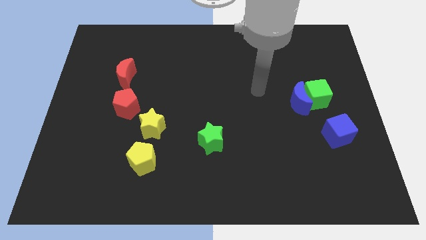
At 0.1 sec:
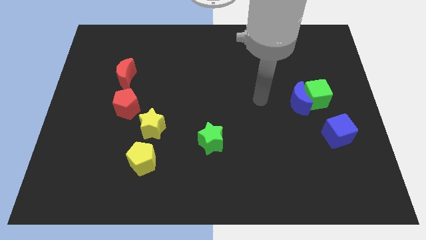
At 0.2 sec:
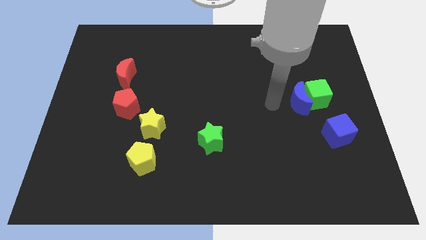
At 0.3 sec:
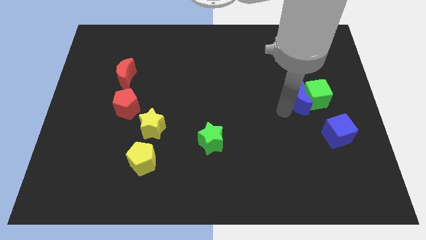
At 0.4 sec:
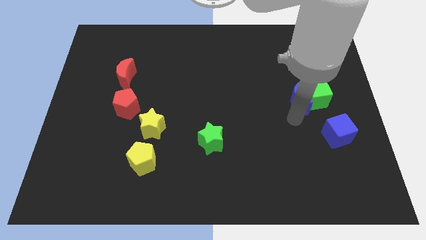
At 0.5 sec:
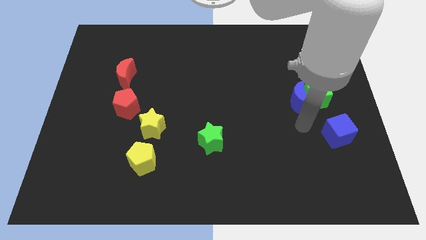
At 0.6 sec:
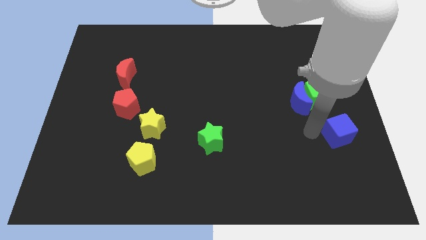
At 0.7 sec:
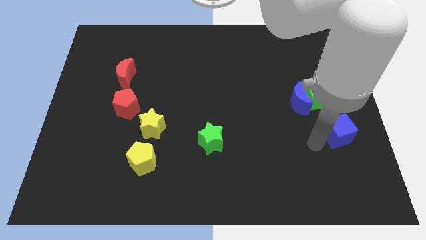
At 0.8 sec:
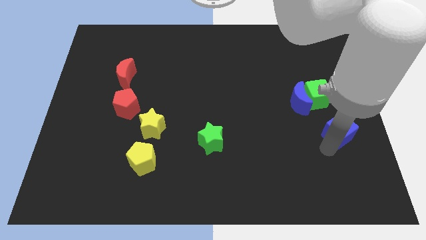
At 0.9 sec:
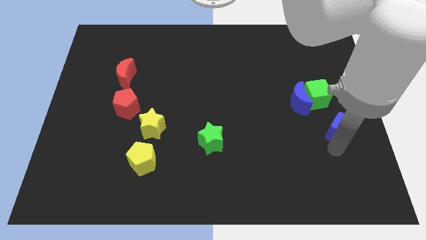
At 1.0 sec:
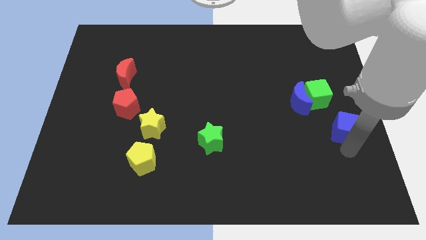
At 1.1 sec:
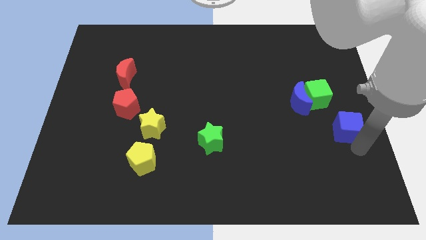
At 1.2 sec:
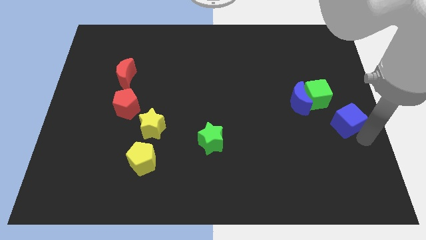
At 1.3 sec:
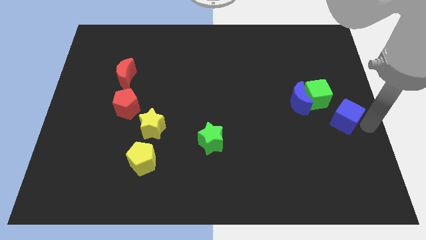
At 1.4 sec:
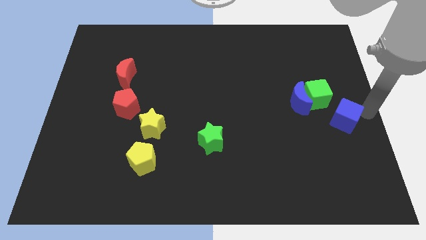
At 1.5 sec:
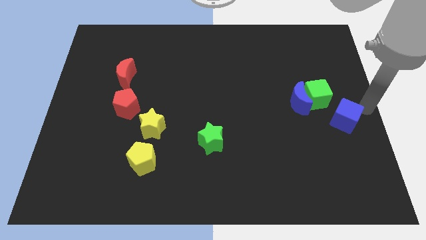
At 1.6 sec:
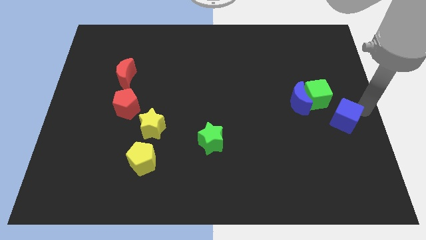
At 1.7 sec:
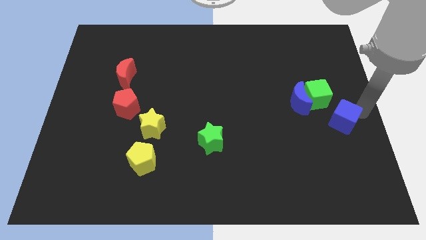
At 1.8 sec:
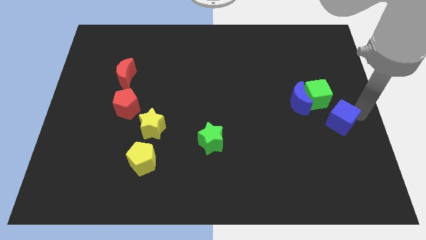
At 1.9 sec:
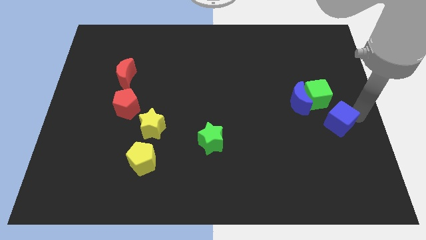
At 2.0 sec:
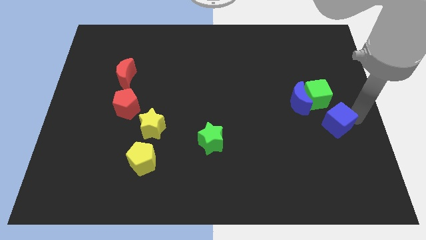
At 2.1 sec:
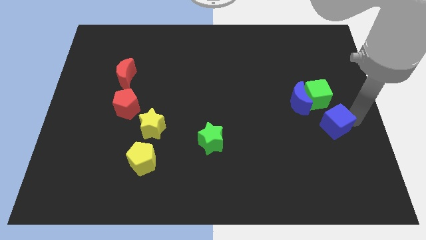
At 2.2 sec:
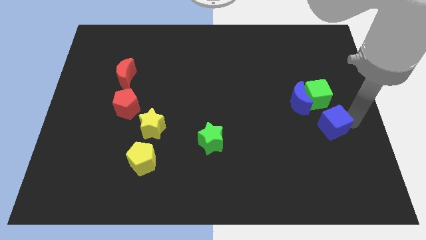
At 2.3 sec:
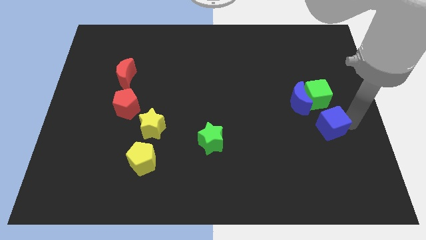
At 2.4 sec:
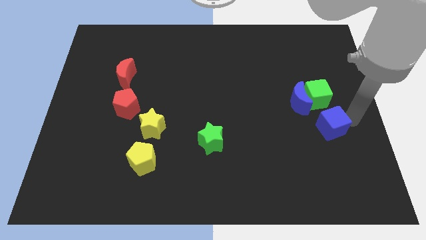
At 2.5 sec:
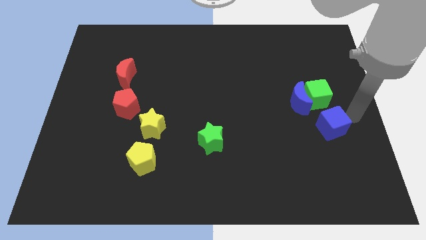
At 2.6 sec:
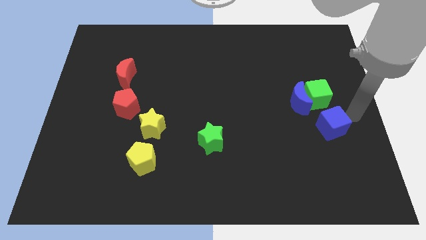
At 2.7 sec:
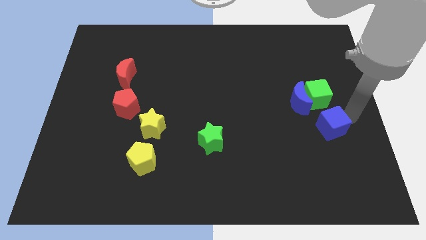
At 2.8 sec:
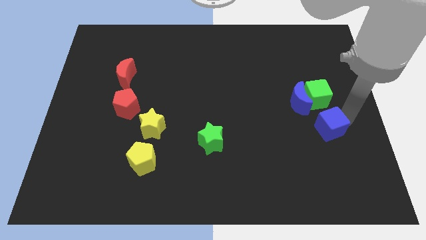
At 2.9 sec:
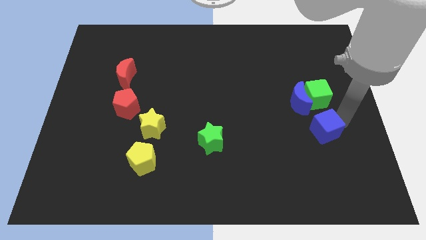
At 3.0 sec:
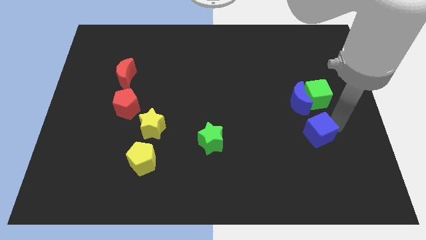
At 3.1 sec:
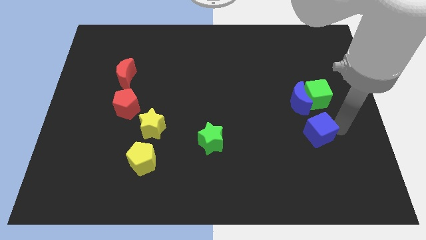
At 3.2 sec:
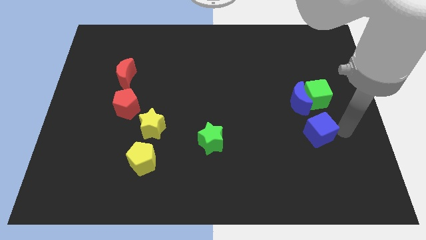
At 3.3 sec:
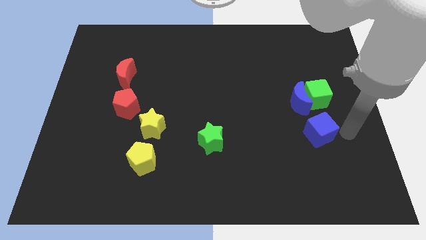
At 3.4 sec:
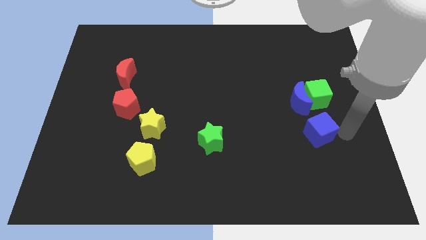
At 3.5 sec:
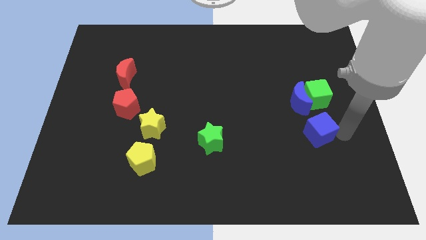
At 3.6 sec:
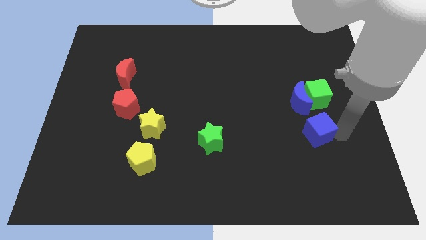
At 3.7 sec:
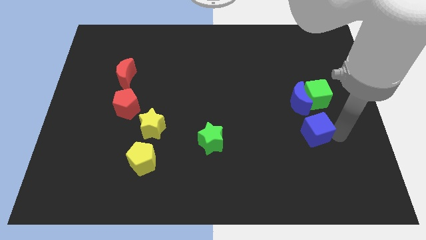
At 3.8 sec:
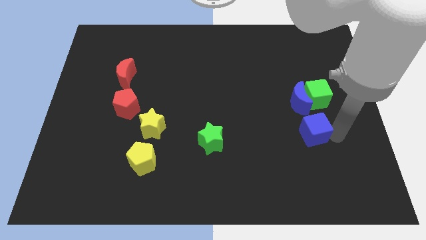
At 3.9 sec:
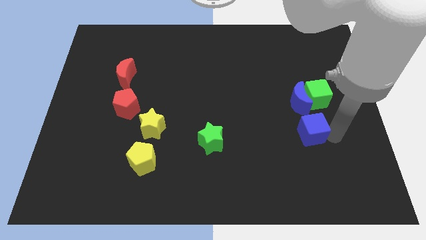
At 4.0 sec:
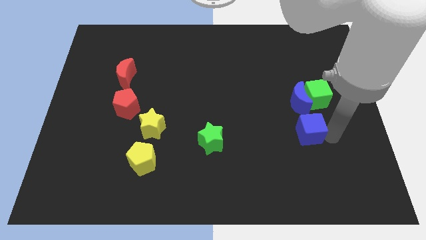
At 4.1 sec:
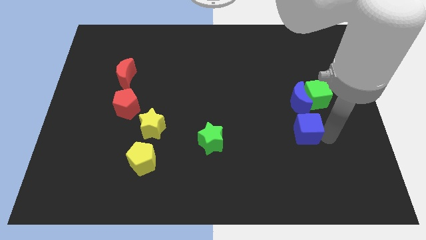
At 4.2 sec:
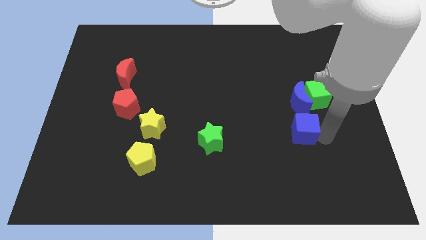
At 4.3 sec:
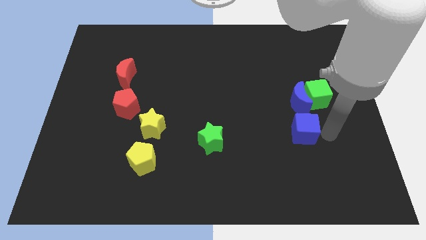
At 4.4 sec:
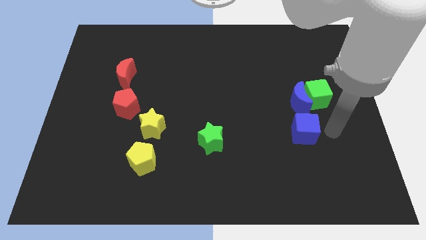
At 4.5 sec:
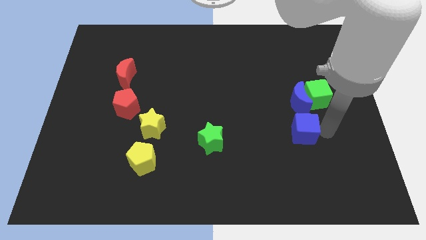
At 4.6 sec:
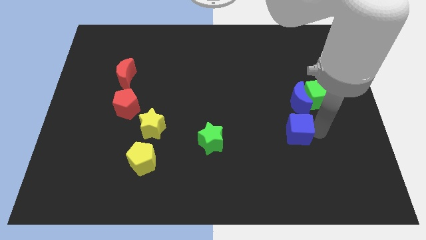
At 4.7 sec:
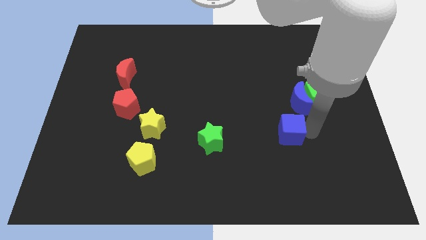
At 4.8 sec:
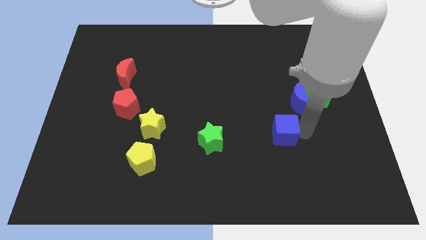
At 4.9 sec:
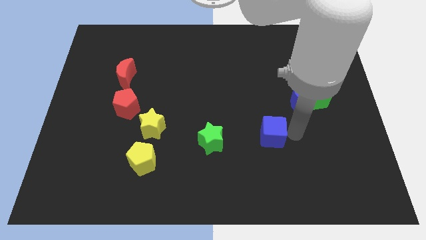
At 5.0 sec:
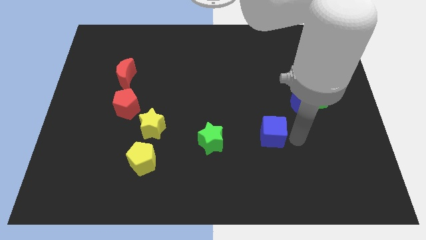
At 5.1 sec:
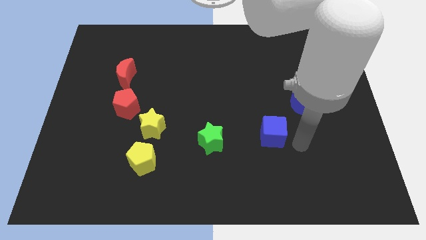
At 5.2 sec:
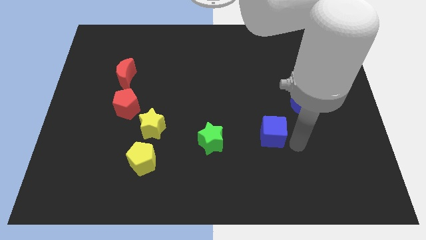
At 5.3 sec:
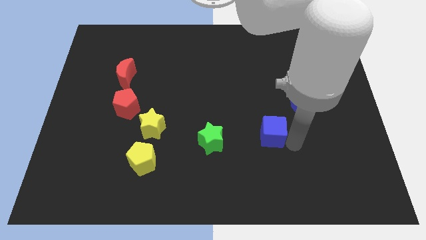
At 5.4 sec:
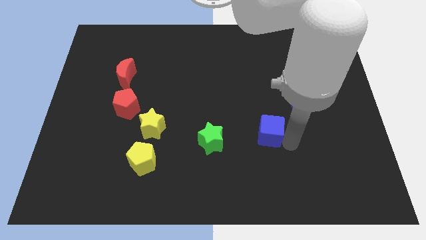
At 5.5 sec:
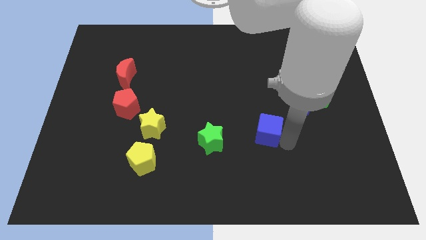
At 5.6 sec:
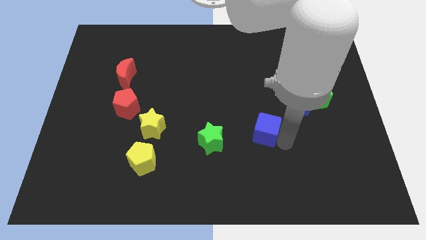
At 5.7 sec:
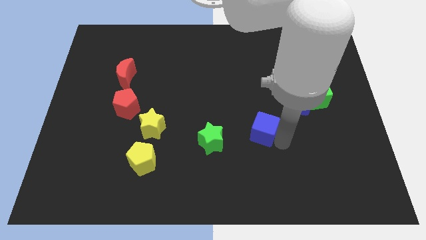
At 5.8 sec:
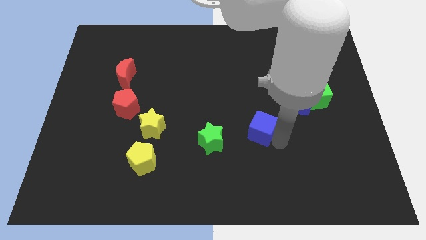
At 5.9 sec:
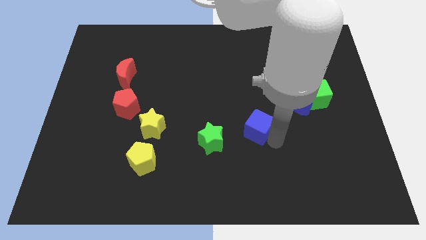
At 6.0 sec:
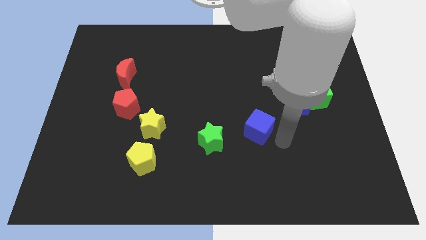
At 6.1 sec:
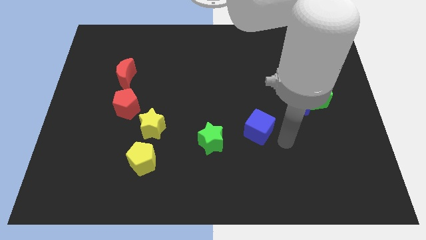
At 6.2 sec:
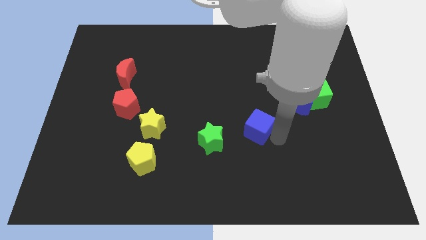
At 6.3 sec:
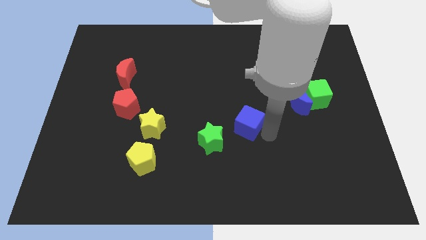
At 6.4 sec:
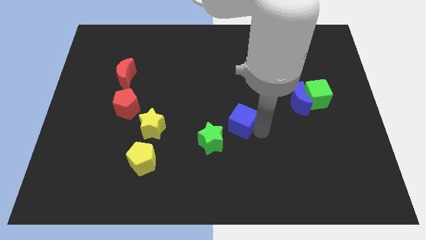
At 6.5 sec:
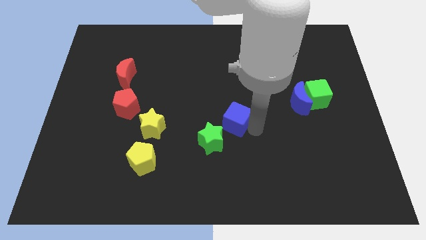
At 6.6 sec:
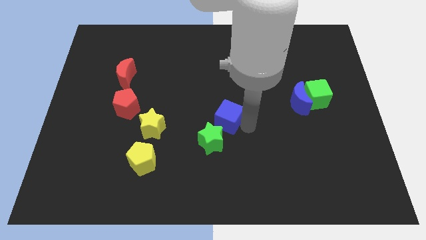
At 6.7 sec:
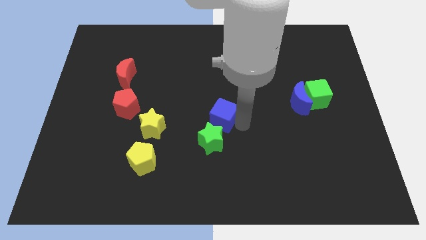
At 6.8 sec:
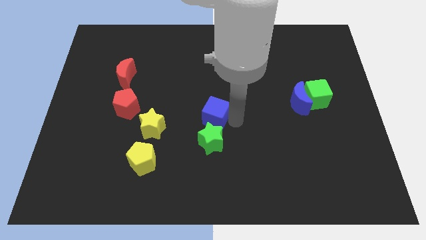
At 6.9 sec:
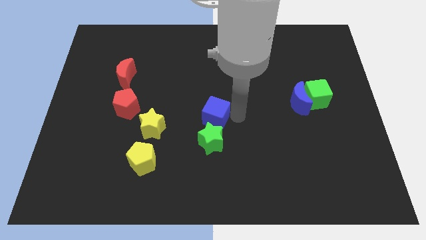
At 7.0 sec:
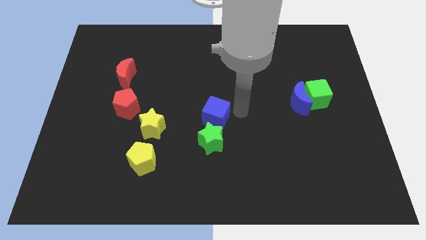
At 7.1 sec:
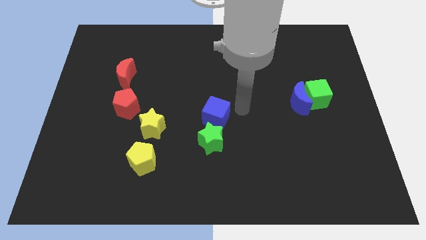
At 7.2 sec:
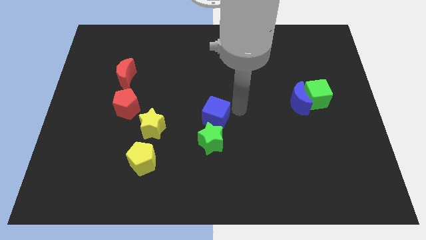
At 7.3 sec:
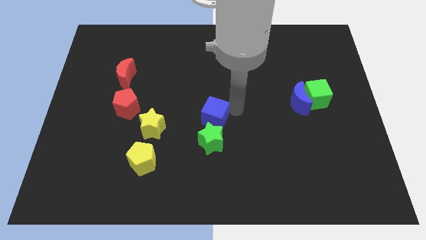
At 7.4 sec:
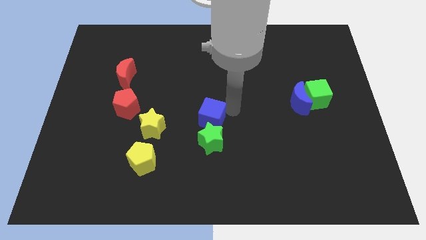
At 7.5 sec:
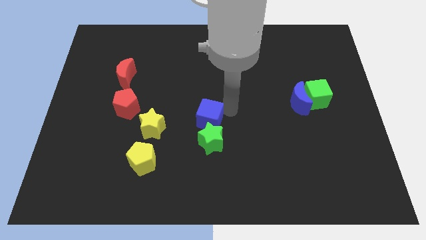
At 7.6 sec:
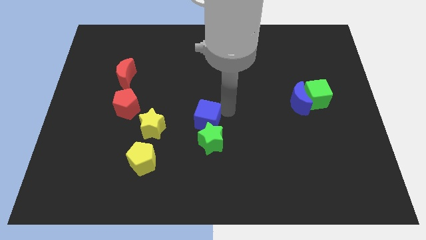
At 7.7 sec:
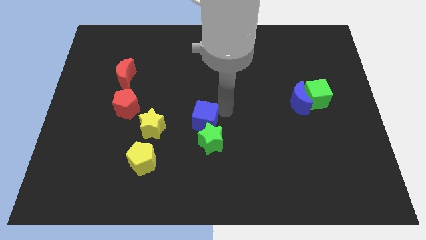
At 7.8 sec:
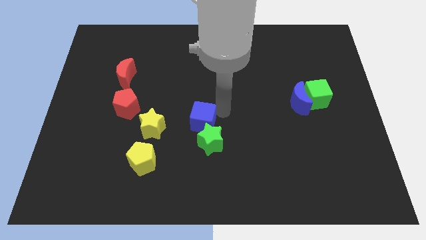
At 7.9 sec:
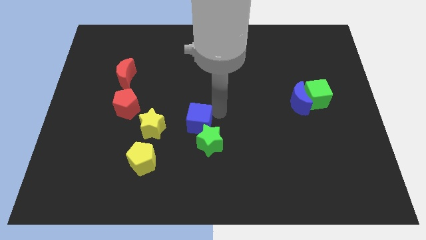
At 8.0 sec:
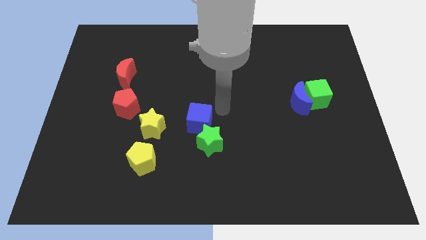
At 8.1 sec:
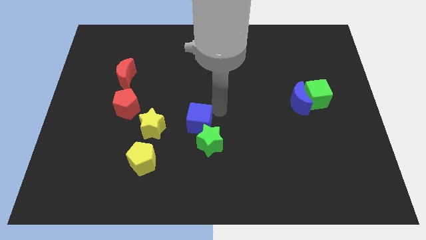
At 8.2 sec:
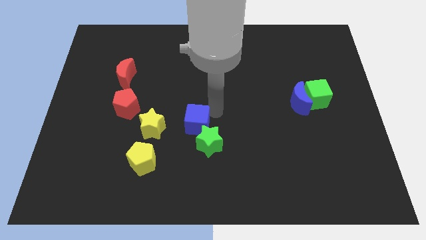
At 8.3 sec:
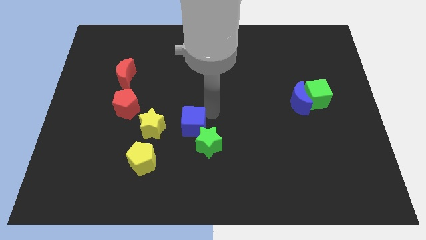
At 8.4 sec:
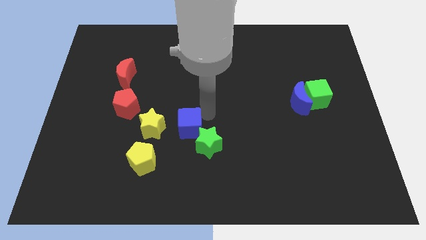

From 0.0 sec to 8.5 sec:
push the blue cube to the left of the green star
